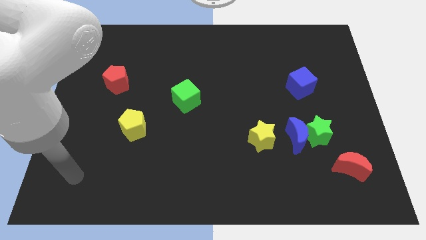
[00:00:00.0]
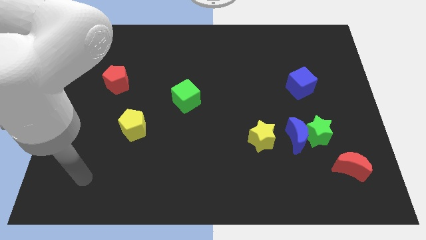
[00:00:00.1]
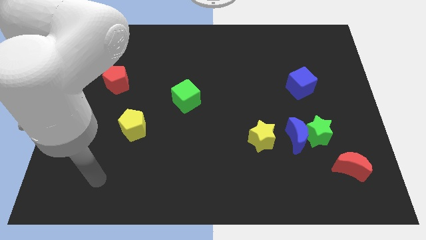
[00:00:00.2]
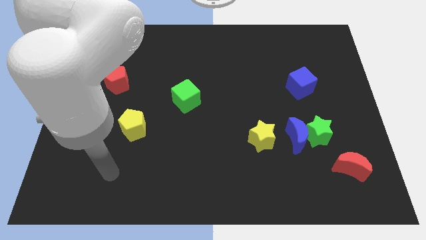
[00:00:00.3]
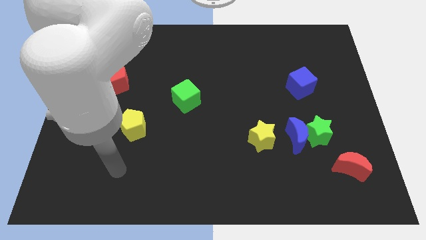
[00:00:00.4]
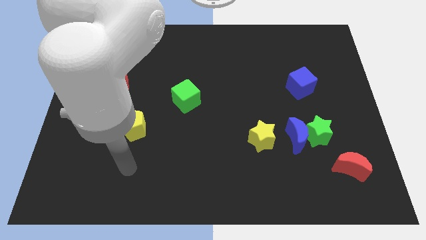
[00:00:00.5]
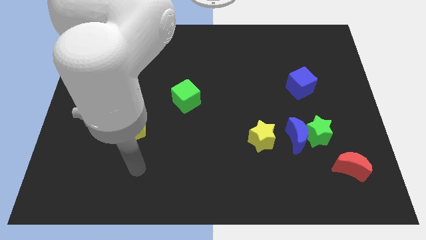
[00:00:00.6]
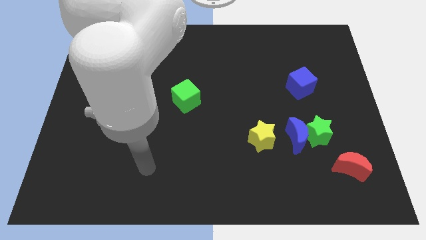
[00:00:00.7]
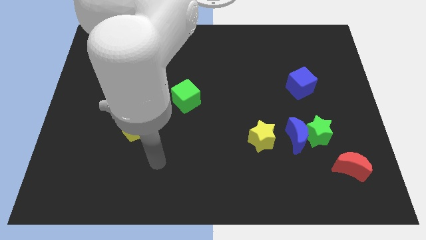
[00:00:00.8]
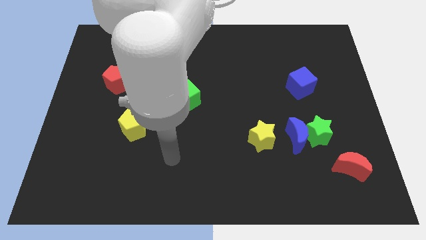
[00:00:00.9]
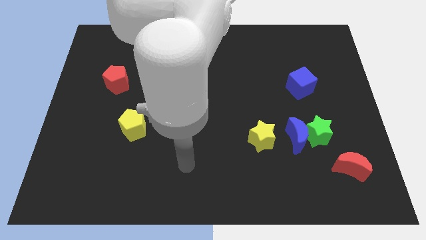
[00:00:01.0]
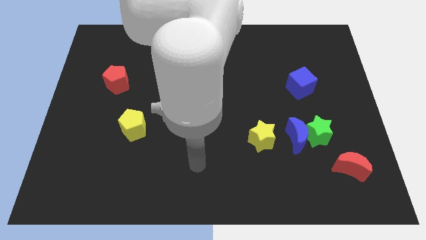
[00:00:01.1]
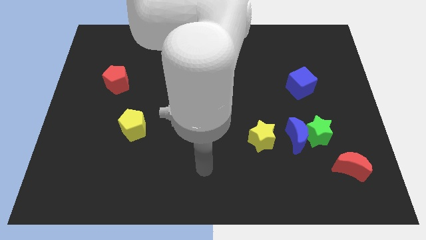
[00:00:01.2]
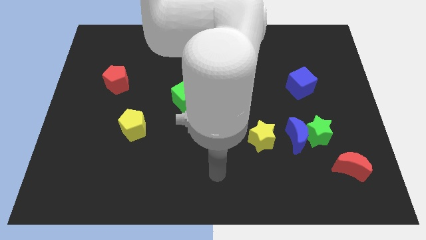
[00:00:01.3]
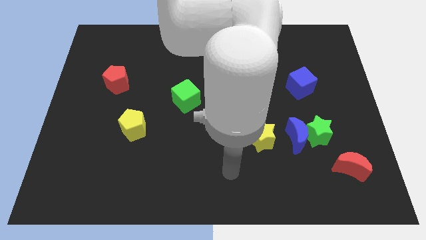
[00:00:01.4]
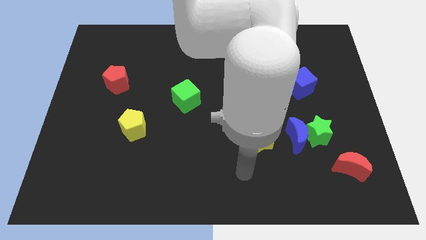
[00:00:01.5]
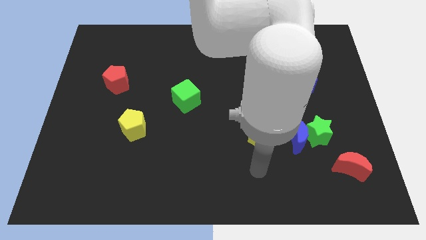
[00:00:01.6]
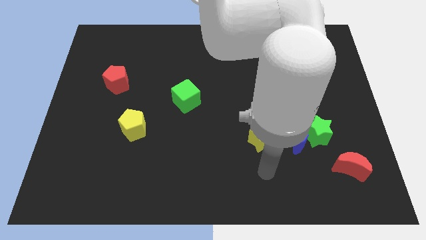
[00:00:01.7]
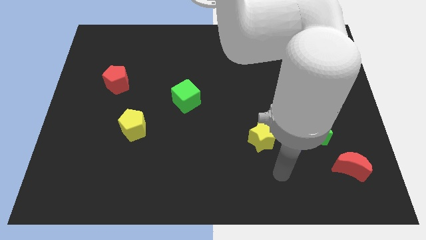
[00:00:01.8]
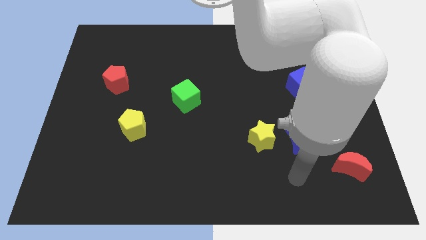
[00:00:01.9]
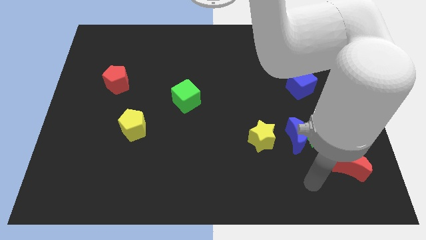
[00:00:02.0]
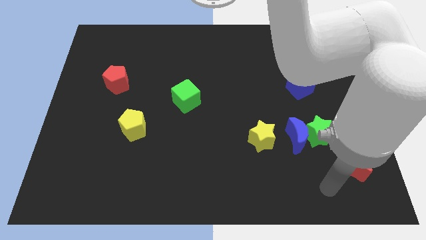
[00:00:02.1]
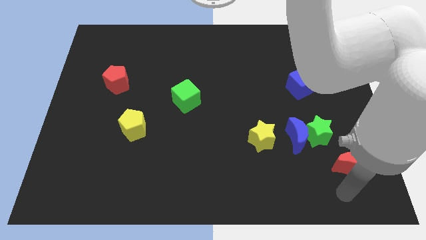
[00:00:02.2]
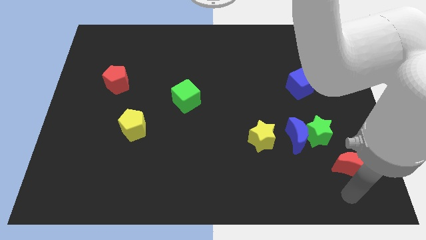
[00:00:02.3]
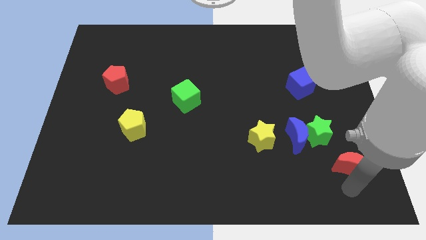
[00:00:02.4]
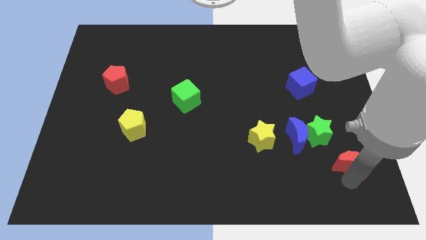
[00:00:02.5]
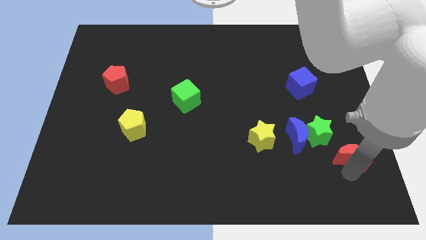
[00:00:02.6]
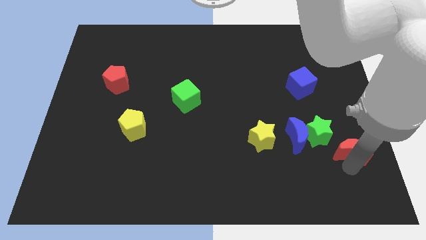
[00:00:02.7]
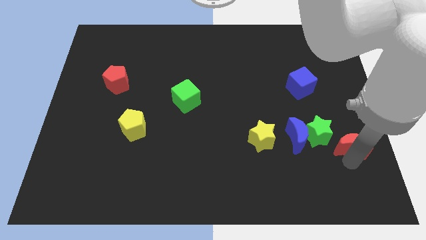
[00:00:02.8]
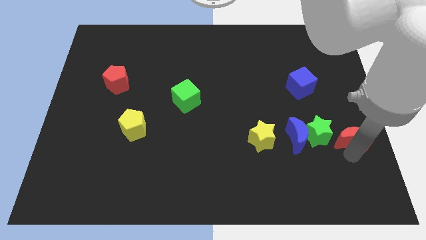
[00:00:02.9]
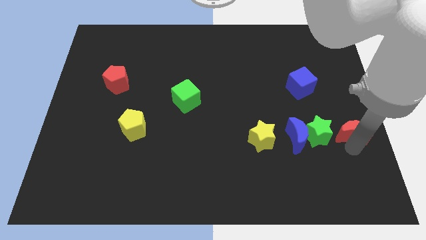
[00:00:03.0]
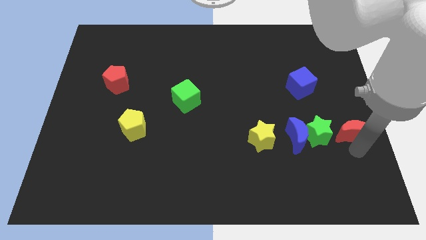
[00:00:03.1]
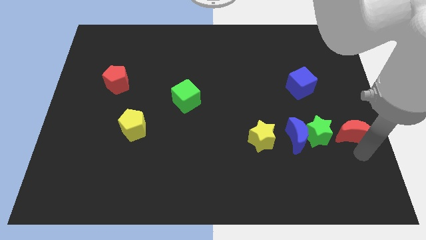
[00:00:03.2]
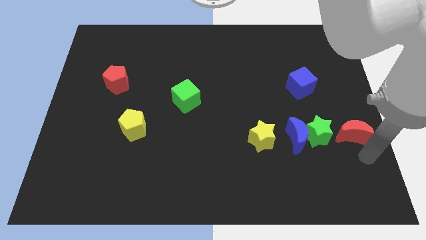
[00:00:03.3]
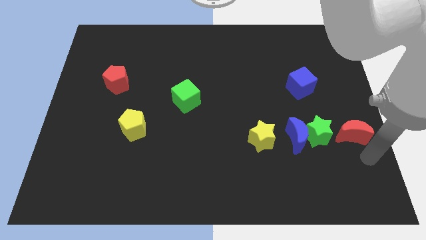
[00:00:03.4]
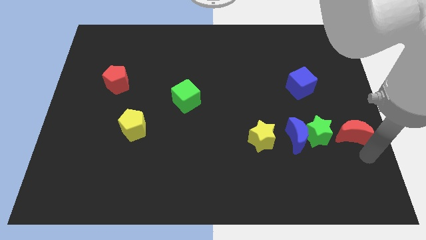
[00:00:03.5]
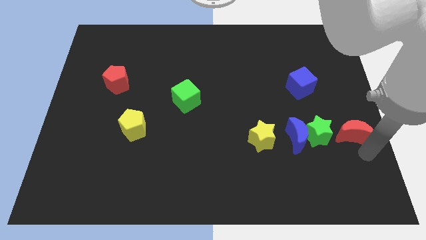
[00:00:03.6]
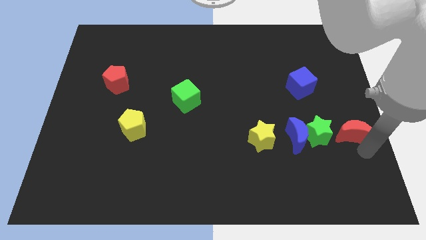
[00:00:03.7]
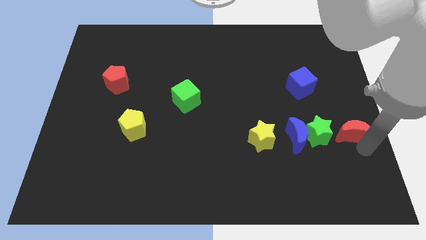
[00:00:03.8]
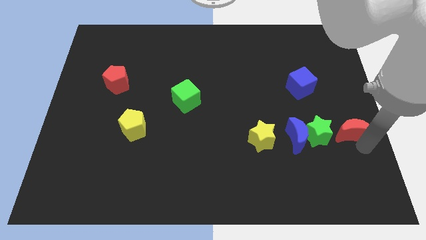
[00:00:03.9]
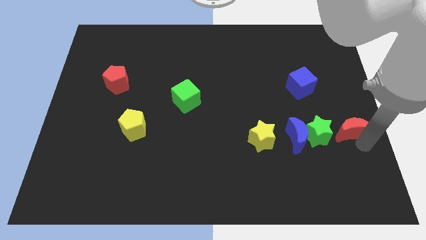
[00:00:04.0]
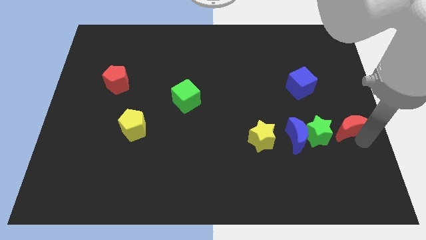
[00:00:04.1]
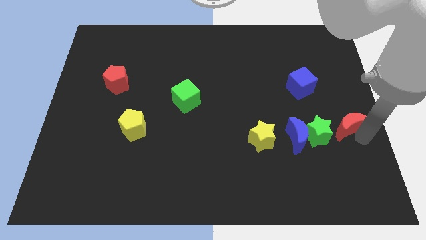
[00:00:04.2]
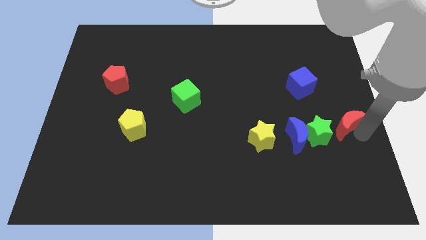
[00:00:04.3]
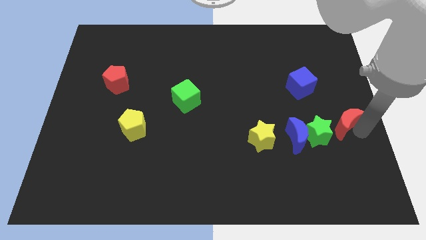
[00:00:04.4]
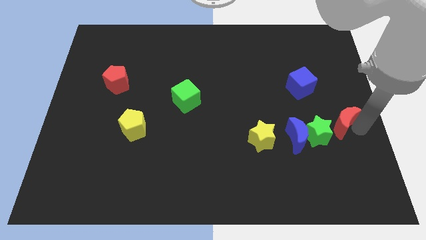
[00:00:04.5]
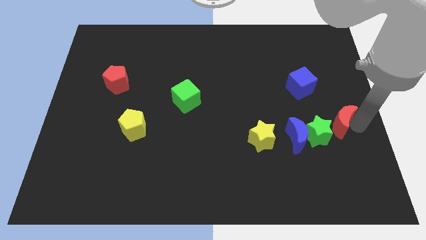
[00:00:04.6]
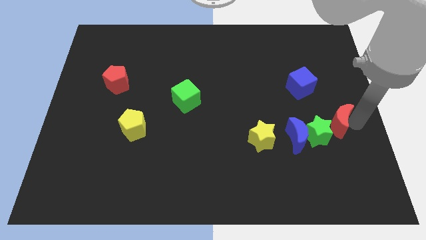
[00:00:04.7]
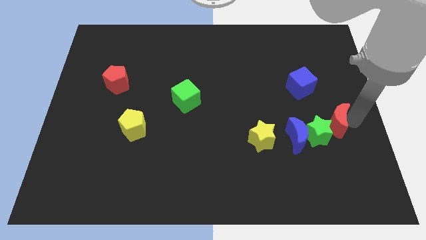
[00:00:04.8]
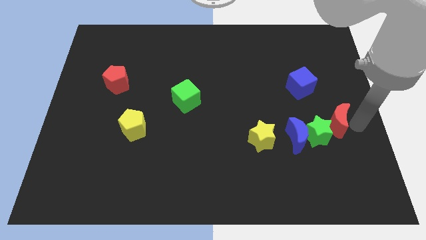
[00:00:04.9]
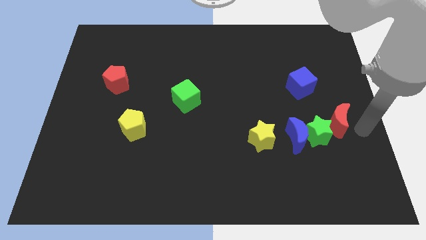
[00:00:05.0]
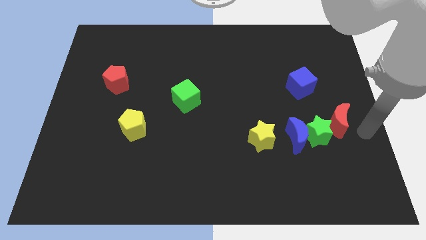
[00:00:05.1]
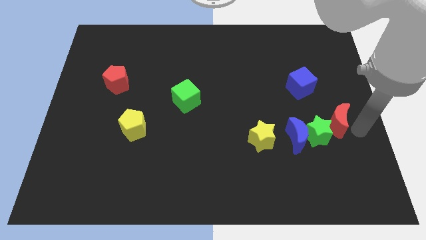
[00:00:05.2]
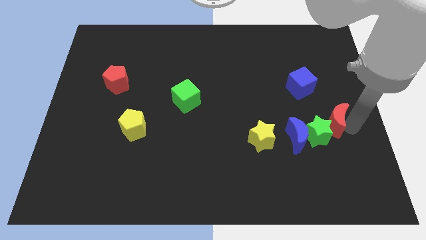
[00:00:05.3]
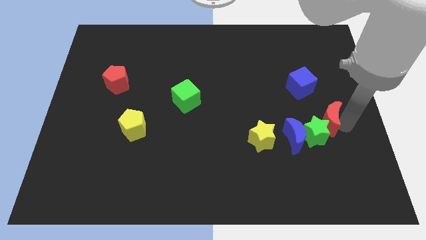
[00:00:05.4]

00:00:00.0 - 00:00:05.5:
slide the red moon upwards and then left somewhat

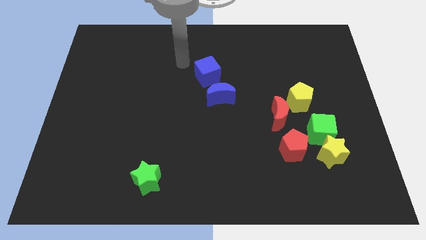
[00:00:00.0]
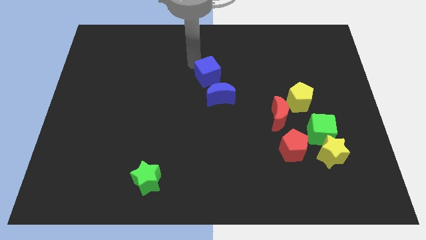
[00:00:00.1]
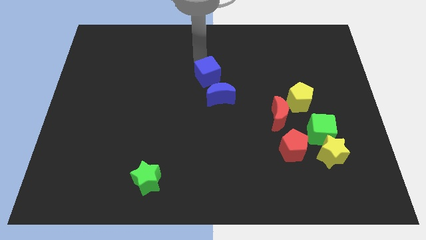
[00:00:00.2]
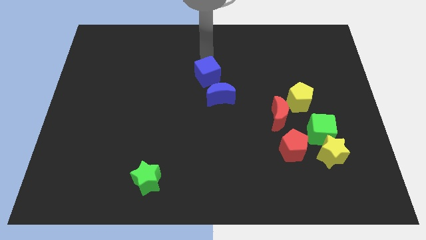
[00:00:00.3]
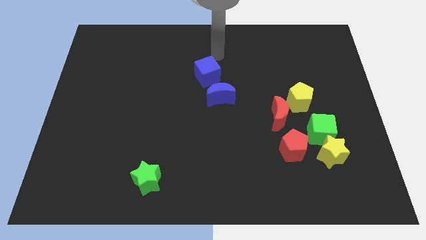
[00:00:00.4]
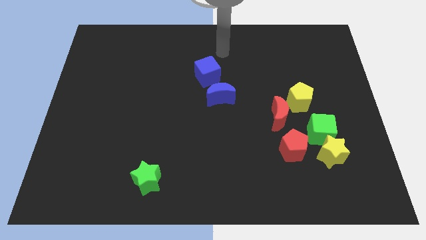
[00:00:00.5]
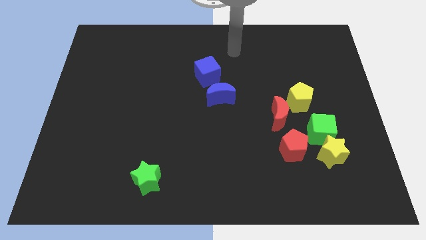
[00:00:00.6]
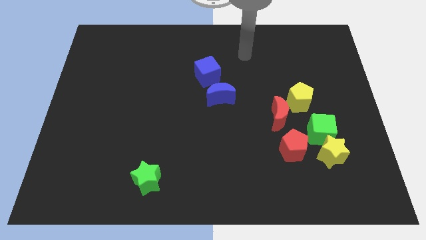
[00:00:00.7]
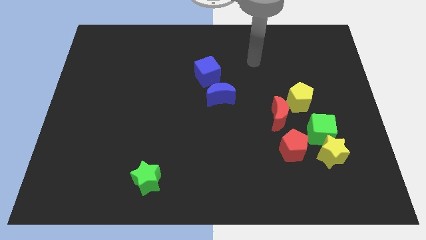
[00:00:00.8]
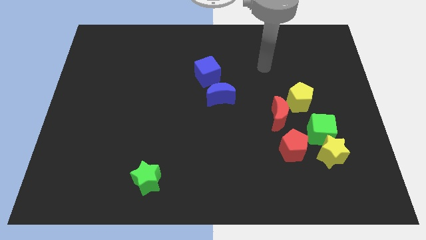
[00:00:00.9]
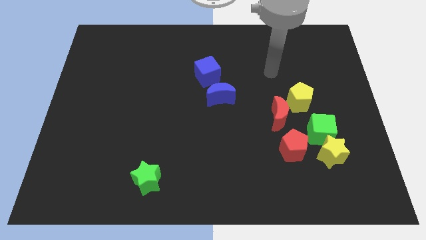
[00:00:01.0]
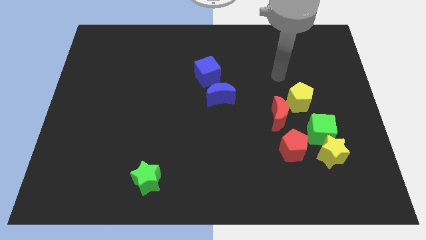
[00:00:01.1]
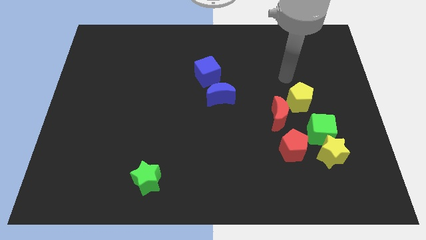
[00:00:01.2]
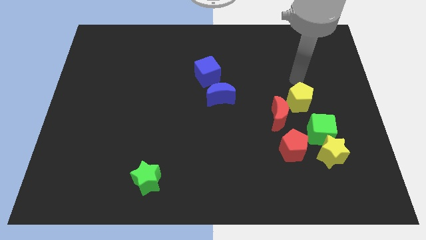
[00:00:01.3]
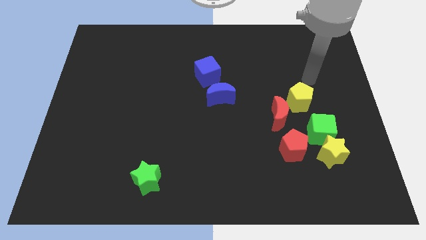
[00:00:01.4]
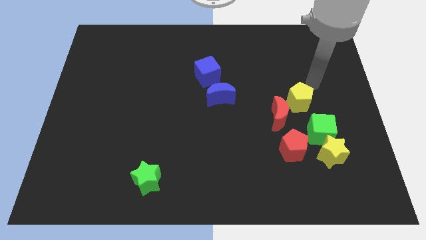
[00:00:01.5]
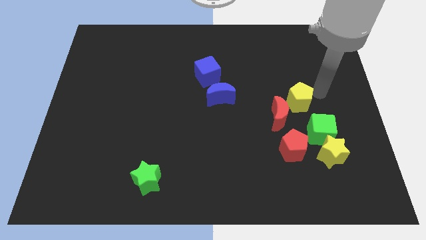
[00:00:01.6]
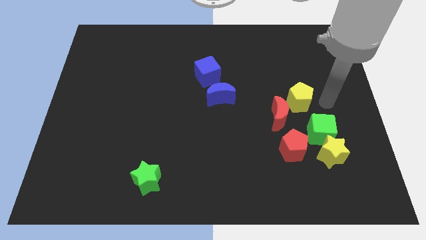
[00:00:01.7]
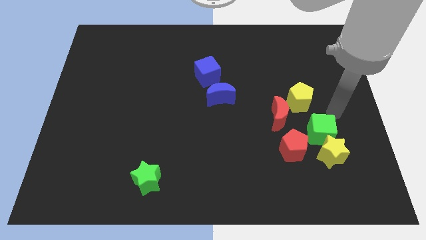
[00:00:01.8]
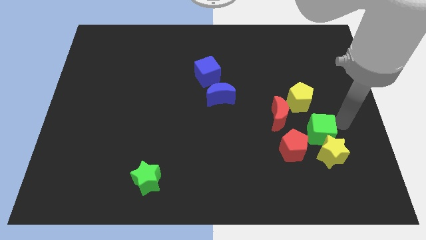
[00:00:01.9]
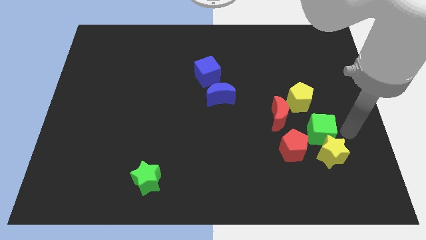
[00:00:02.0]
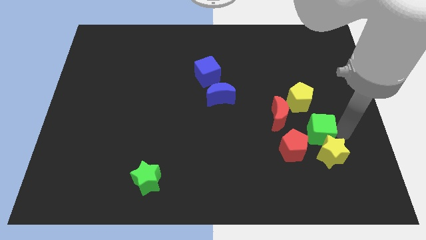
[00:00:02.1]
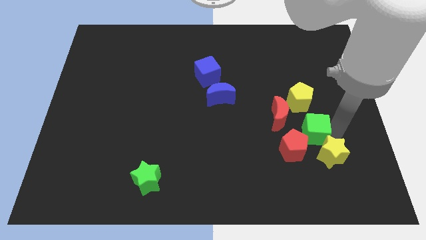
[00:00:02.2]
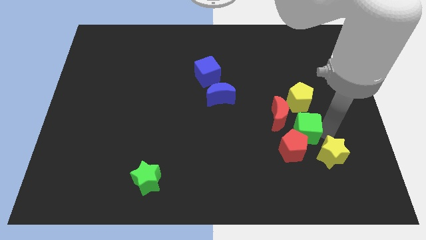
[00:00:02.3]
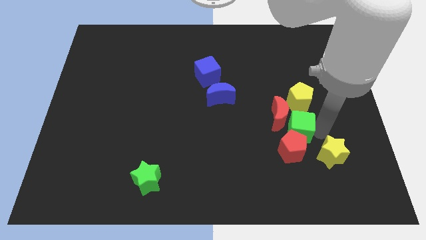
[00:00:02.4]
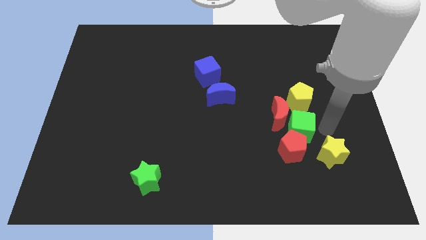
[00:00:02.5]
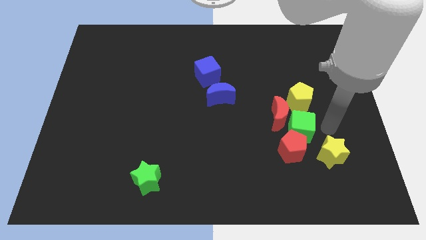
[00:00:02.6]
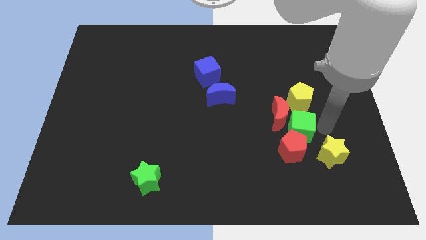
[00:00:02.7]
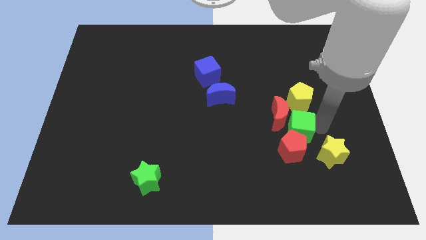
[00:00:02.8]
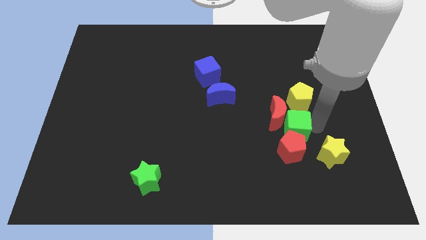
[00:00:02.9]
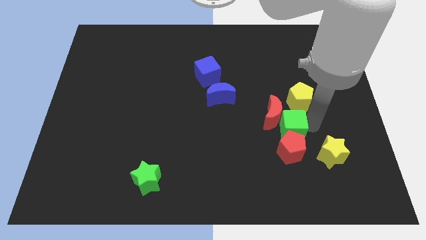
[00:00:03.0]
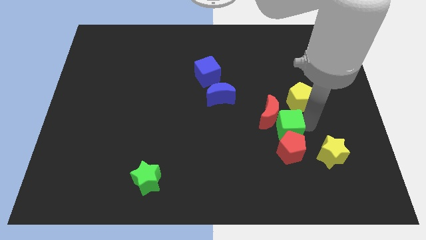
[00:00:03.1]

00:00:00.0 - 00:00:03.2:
move the green cube slightly to the left
